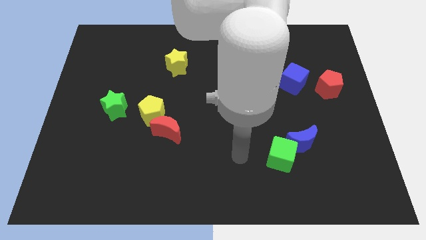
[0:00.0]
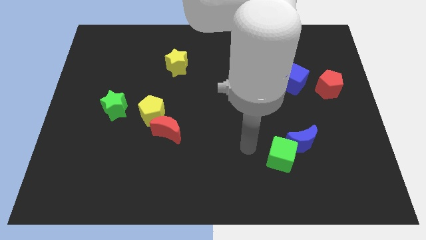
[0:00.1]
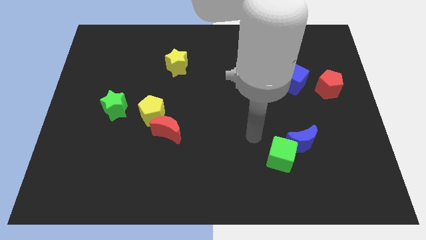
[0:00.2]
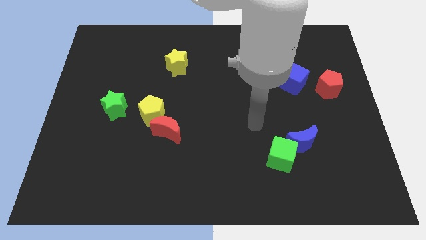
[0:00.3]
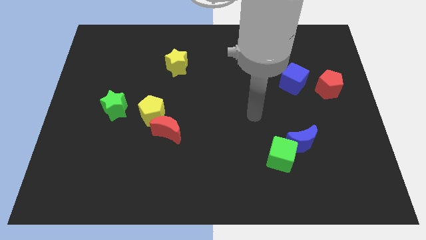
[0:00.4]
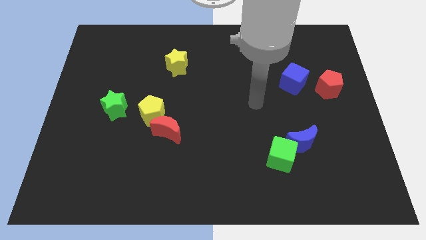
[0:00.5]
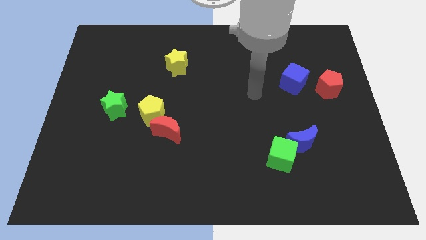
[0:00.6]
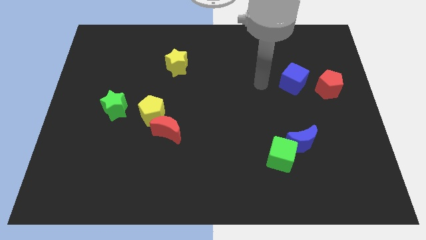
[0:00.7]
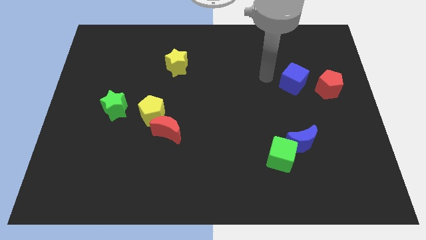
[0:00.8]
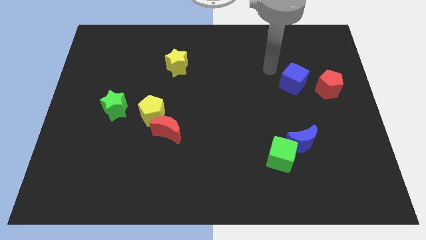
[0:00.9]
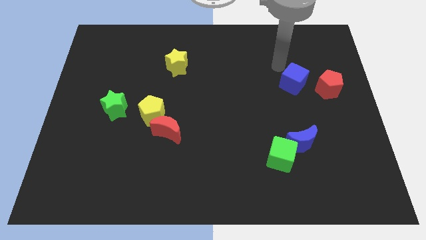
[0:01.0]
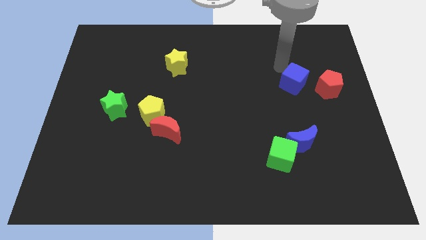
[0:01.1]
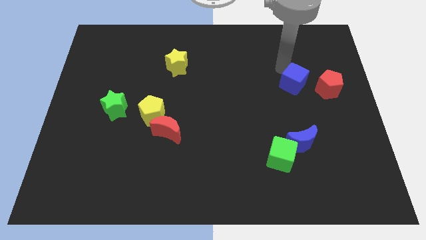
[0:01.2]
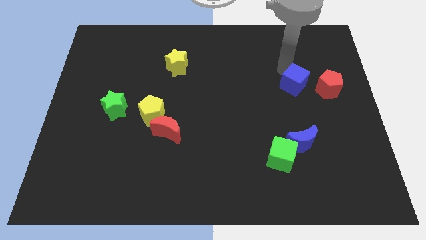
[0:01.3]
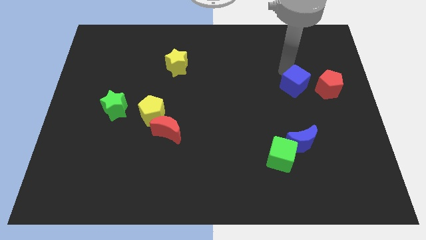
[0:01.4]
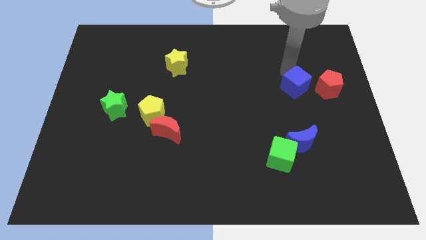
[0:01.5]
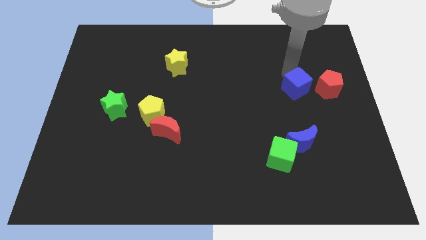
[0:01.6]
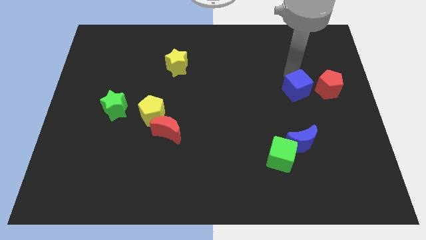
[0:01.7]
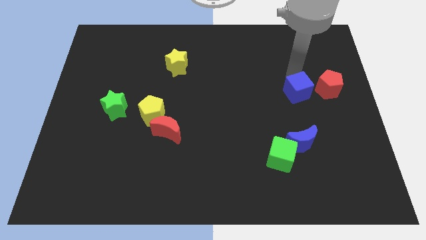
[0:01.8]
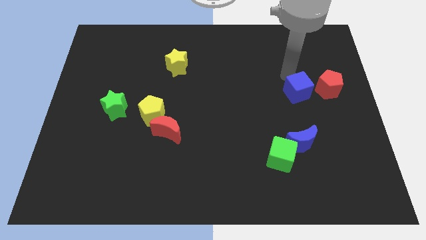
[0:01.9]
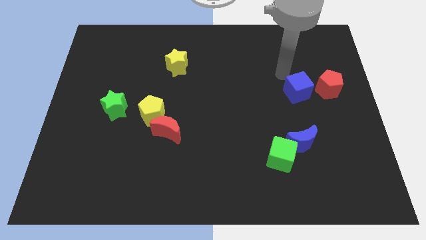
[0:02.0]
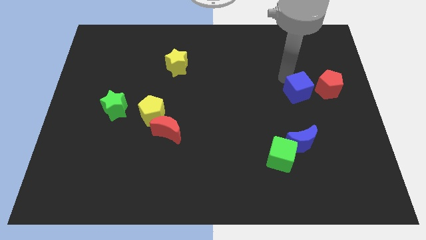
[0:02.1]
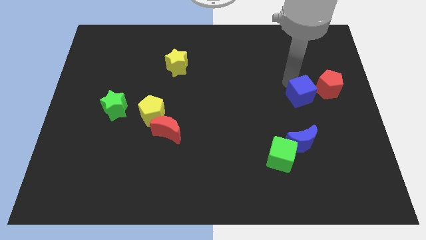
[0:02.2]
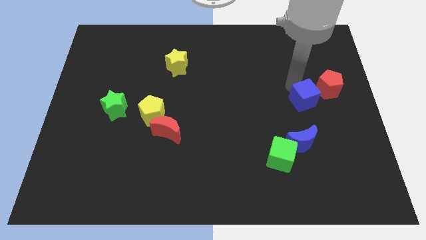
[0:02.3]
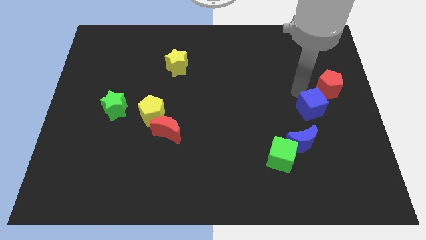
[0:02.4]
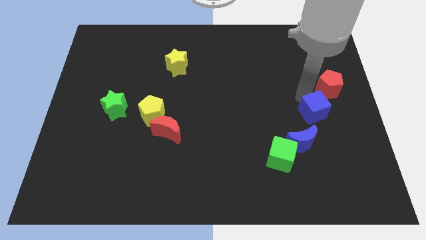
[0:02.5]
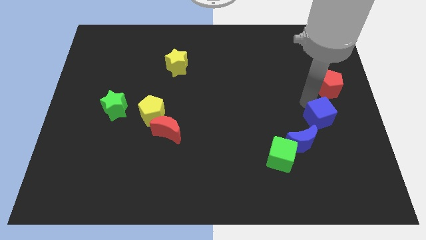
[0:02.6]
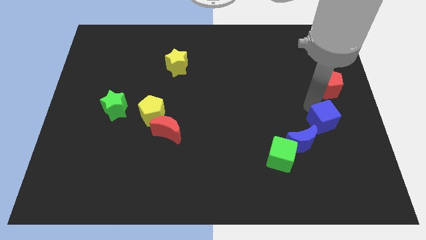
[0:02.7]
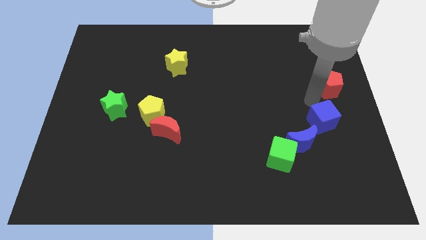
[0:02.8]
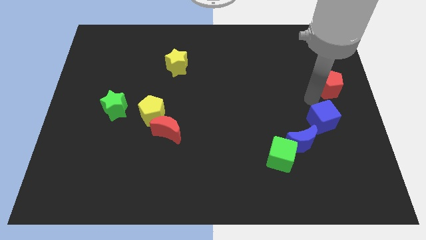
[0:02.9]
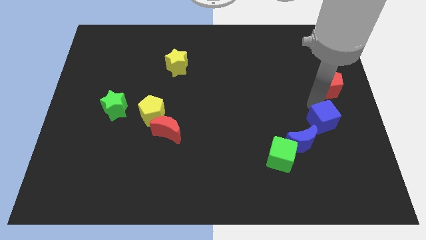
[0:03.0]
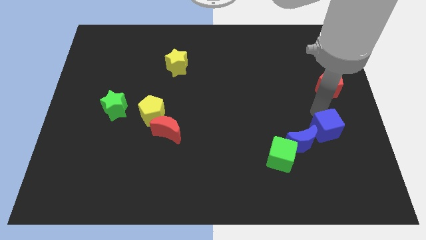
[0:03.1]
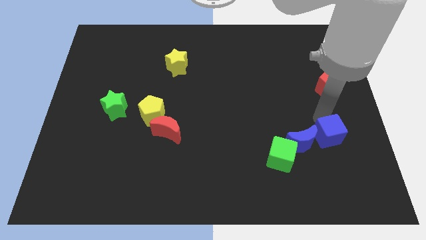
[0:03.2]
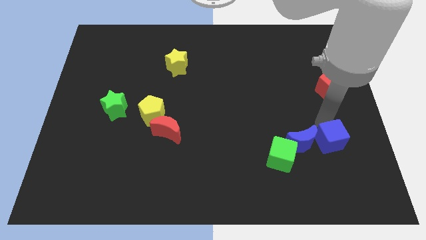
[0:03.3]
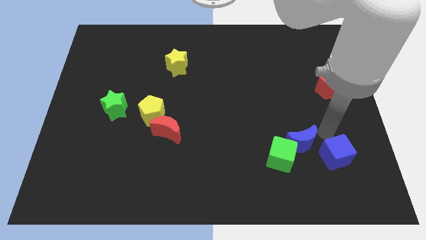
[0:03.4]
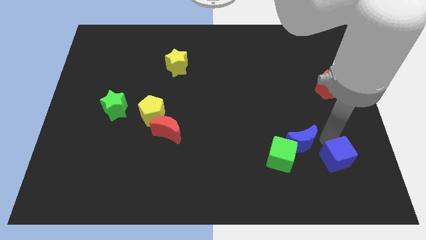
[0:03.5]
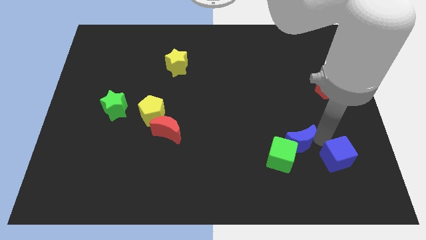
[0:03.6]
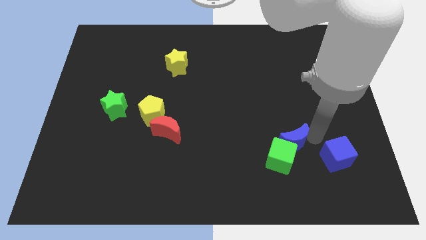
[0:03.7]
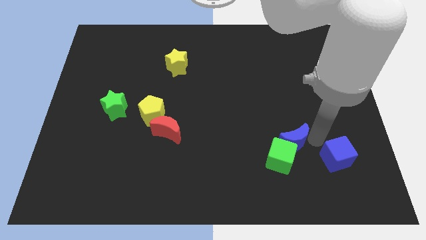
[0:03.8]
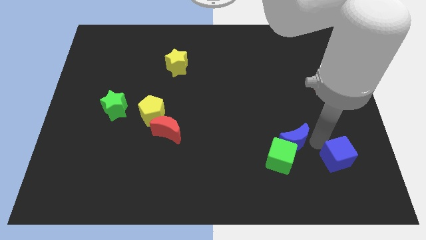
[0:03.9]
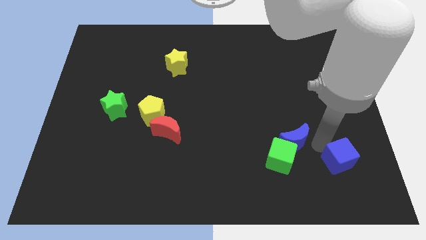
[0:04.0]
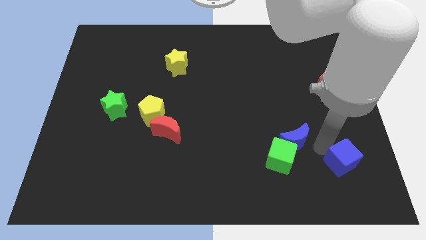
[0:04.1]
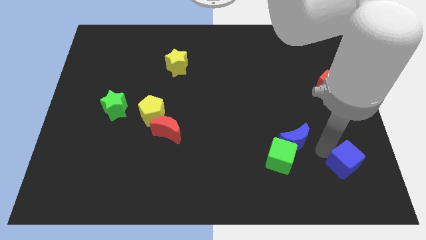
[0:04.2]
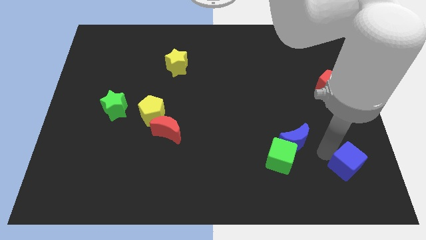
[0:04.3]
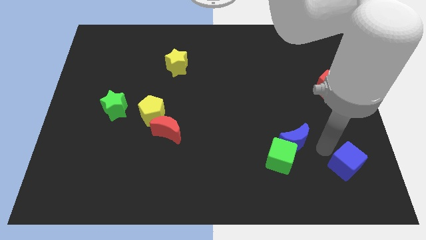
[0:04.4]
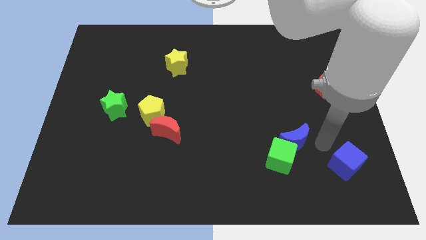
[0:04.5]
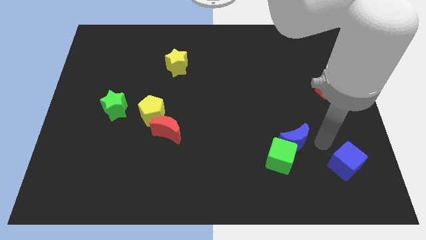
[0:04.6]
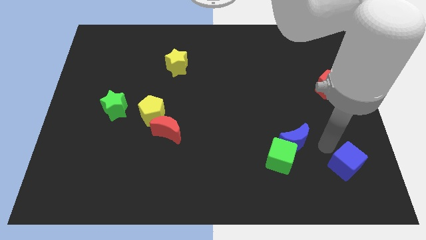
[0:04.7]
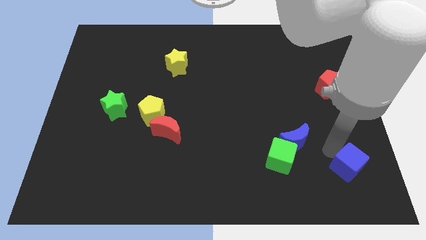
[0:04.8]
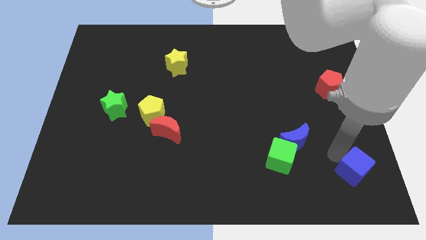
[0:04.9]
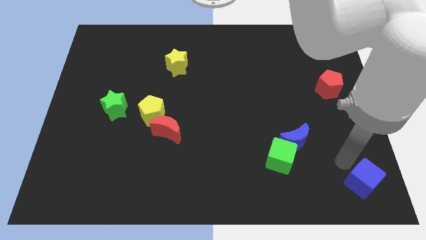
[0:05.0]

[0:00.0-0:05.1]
move the blue cube to the lower right corner

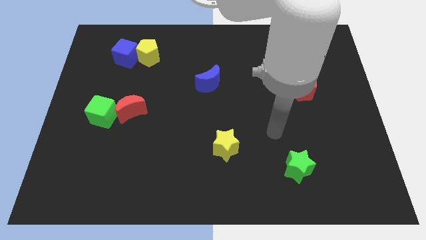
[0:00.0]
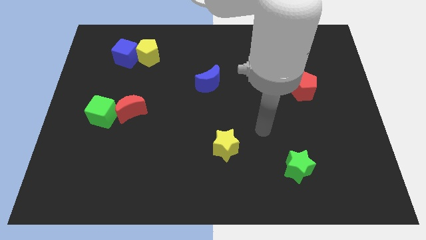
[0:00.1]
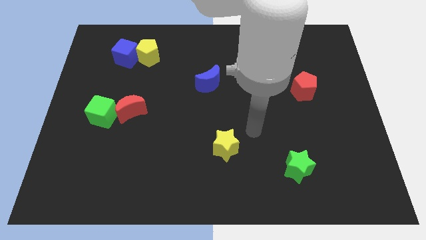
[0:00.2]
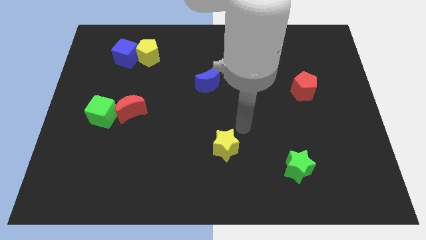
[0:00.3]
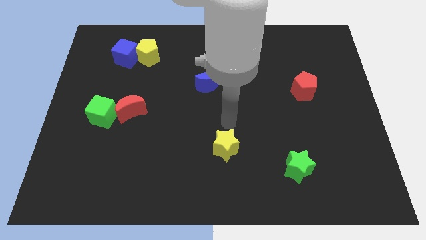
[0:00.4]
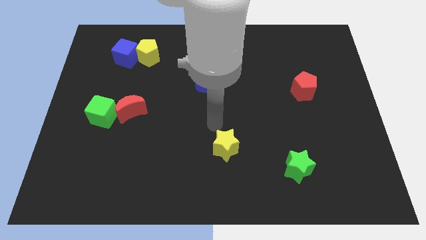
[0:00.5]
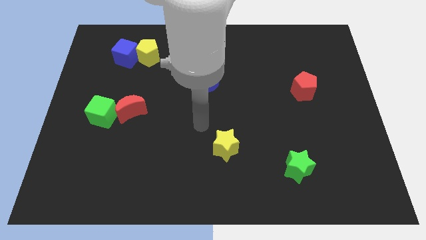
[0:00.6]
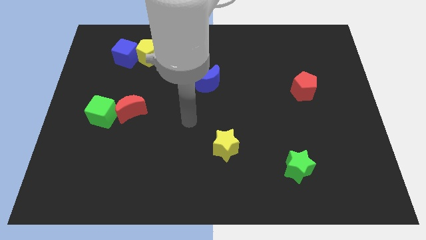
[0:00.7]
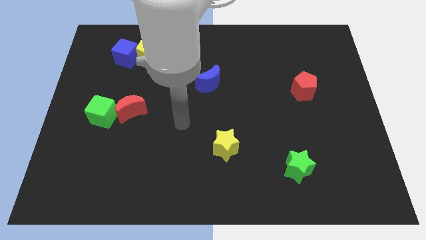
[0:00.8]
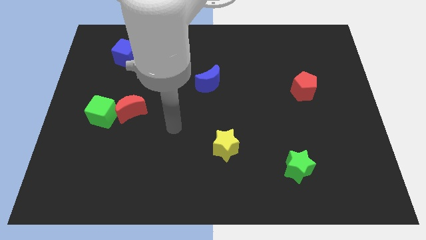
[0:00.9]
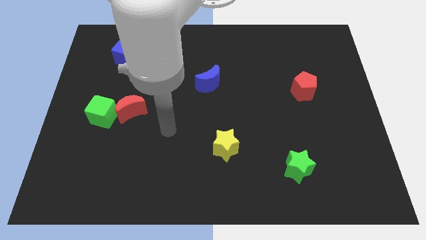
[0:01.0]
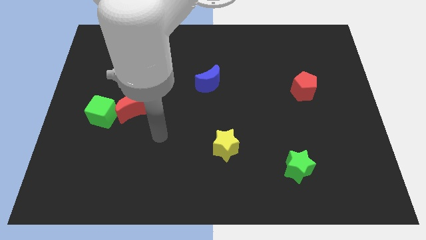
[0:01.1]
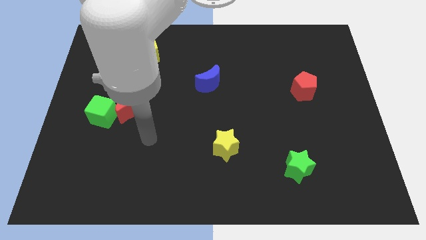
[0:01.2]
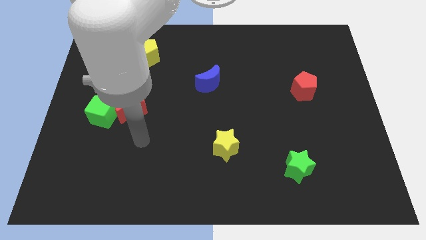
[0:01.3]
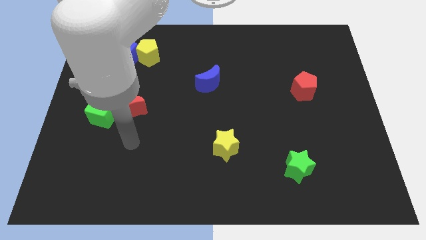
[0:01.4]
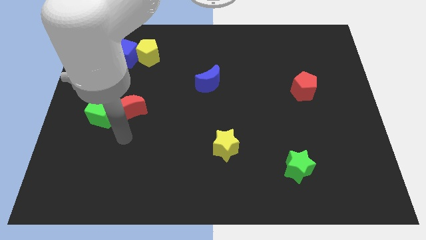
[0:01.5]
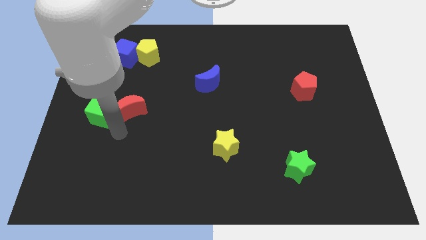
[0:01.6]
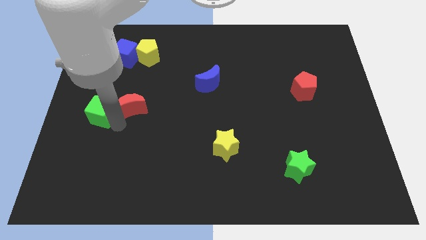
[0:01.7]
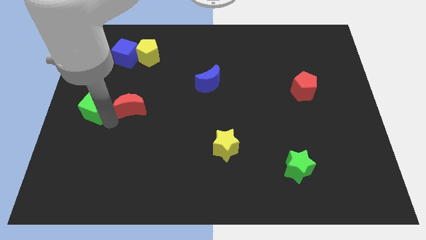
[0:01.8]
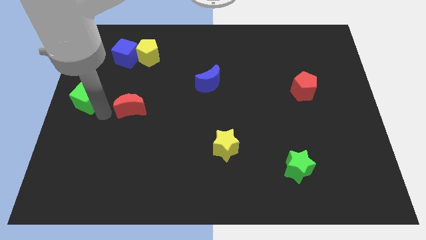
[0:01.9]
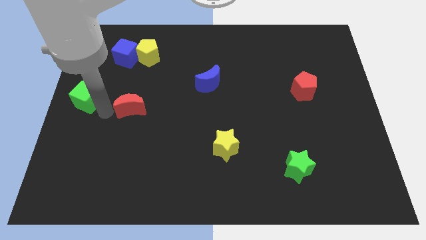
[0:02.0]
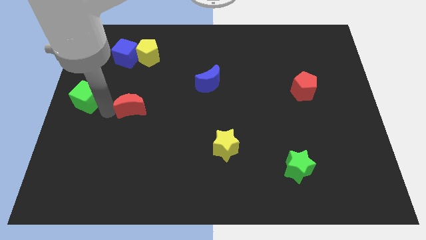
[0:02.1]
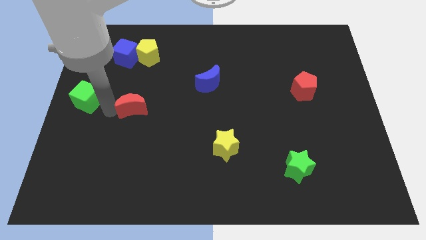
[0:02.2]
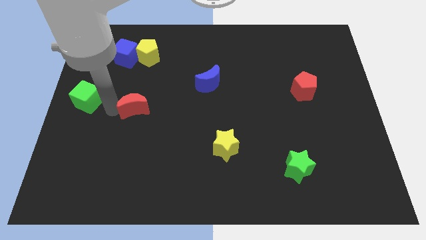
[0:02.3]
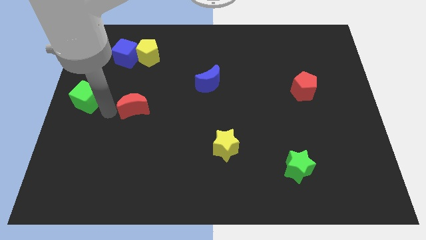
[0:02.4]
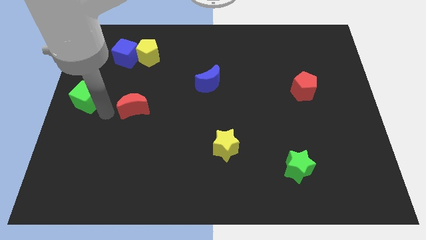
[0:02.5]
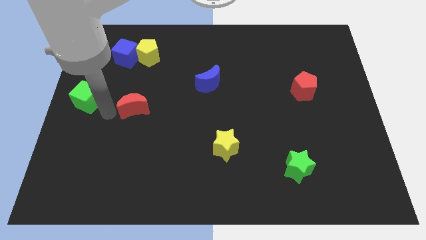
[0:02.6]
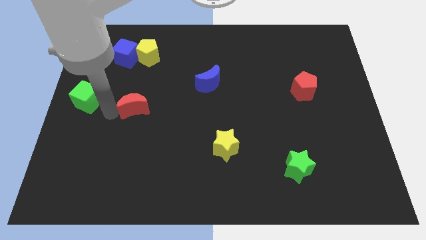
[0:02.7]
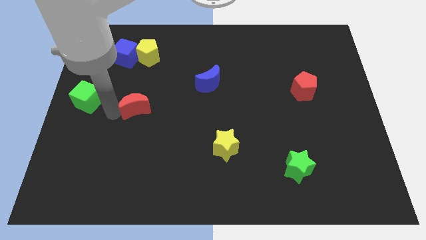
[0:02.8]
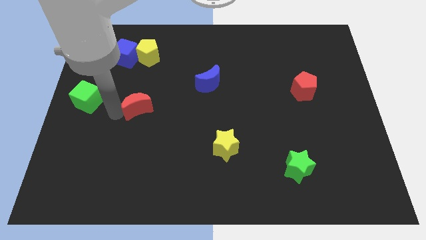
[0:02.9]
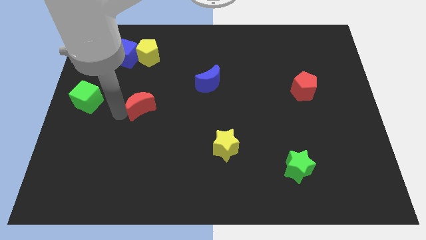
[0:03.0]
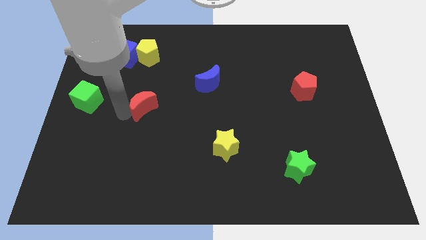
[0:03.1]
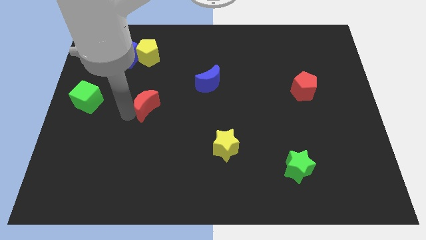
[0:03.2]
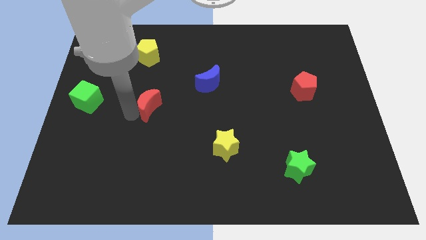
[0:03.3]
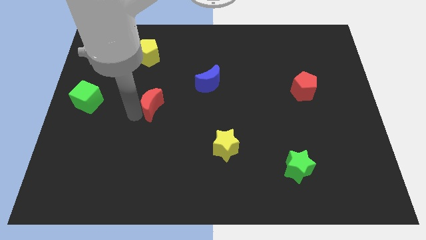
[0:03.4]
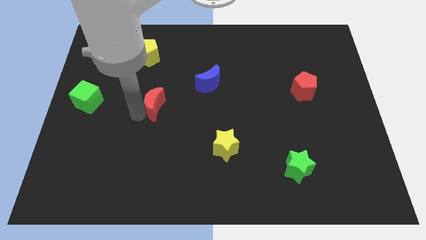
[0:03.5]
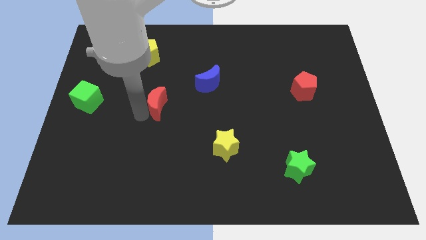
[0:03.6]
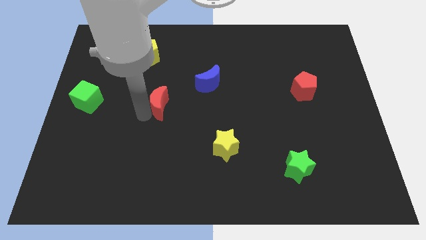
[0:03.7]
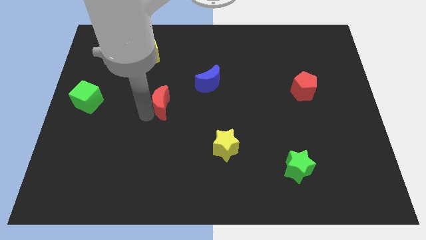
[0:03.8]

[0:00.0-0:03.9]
push the red moon to the middle
